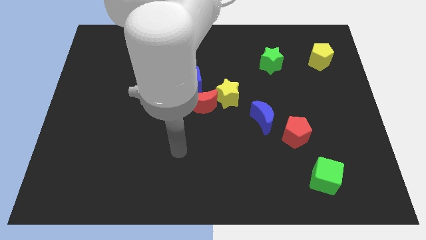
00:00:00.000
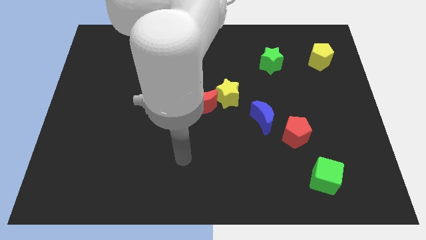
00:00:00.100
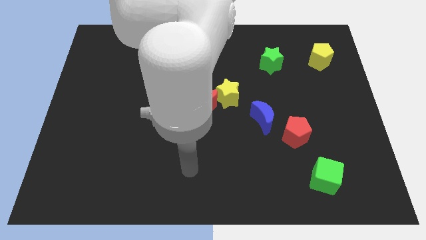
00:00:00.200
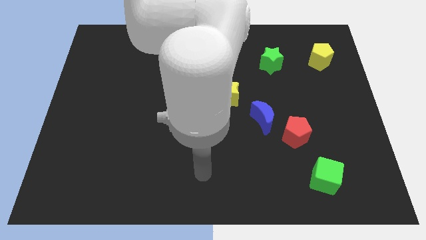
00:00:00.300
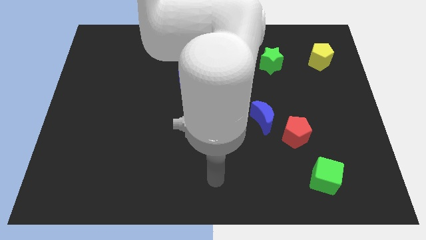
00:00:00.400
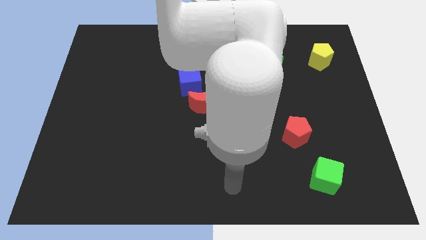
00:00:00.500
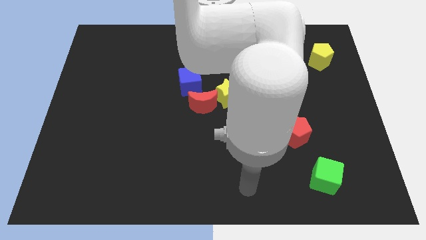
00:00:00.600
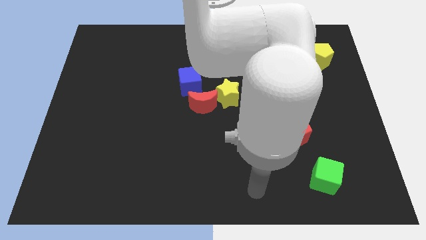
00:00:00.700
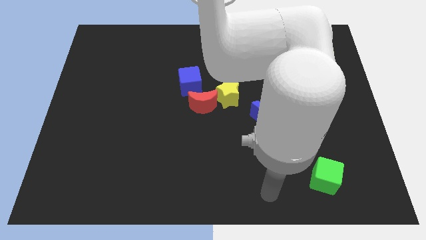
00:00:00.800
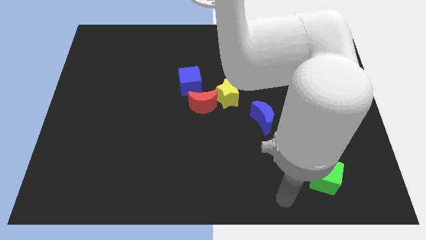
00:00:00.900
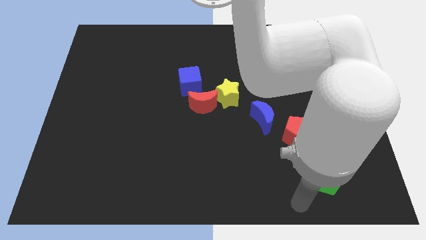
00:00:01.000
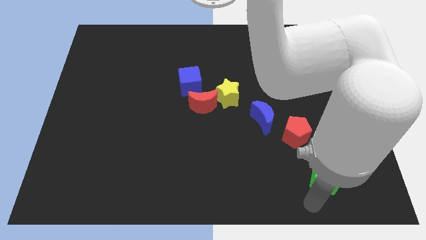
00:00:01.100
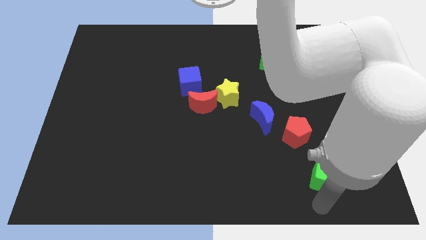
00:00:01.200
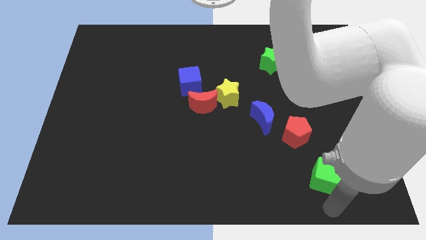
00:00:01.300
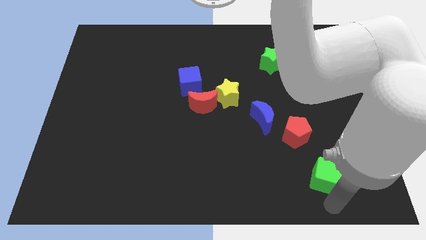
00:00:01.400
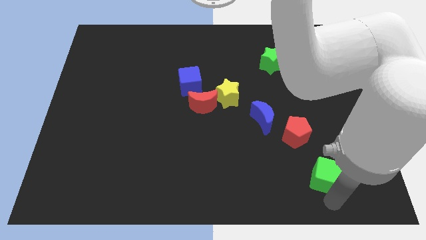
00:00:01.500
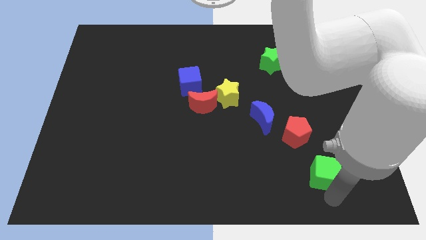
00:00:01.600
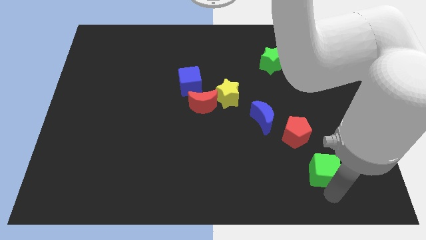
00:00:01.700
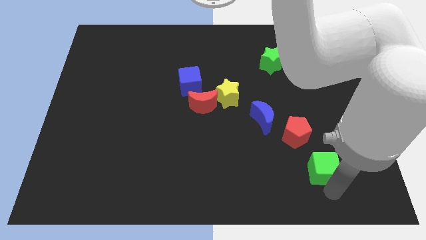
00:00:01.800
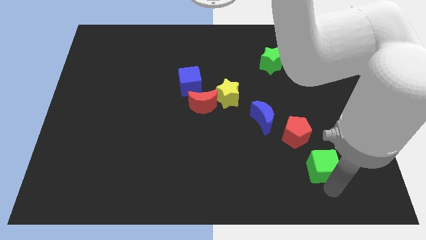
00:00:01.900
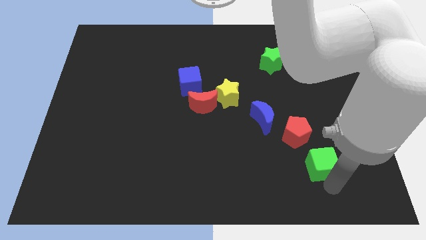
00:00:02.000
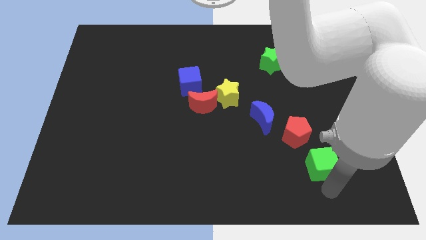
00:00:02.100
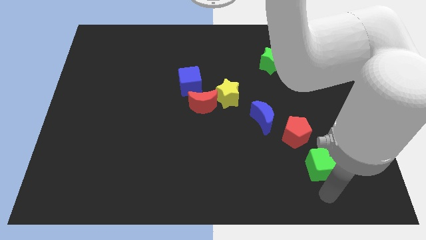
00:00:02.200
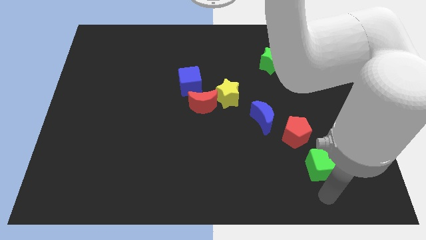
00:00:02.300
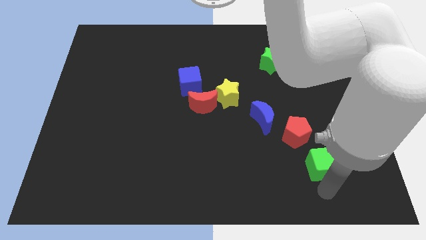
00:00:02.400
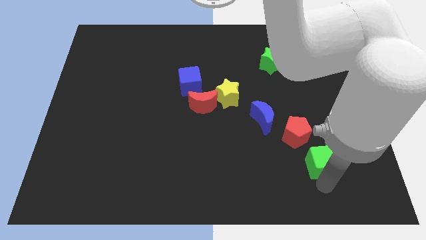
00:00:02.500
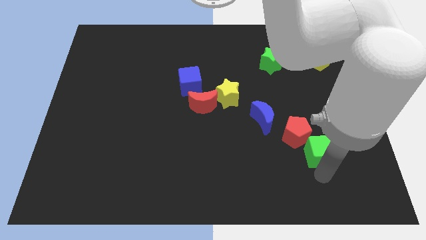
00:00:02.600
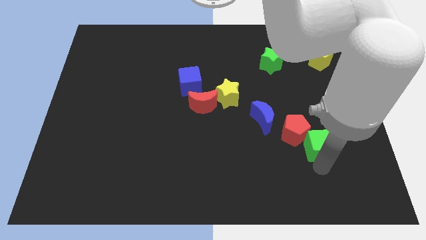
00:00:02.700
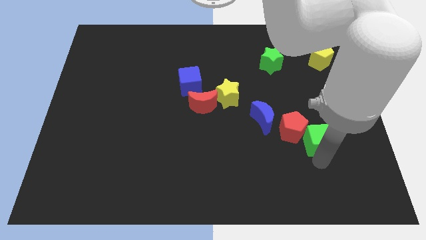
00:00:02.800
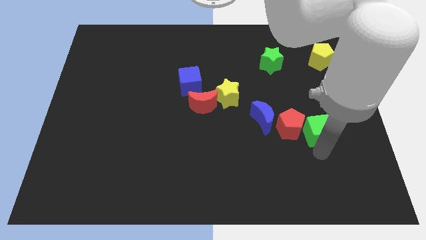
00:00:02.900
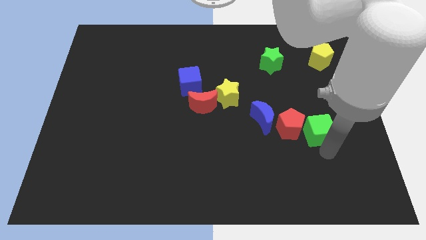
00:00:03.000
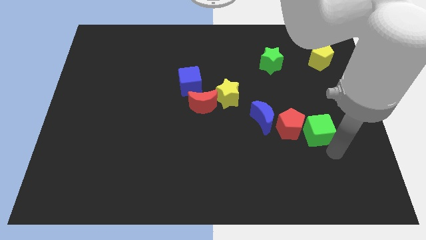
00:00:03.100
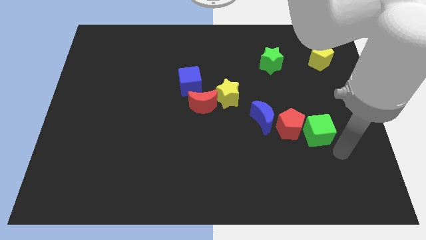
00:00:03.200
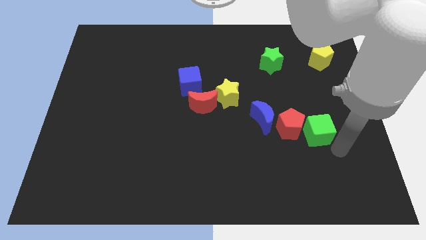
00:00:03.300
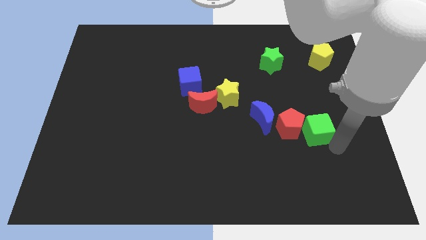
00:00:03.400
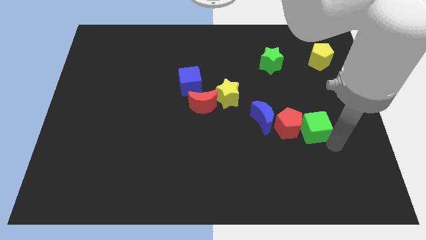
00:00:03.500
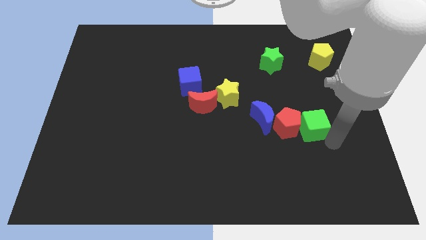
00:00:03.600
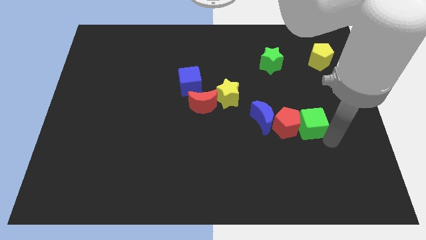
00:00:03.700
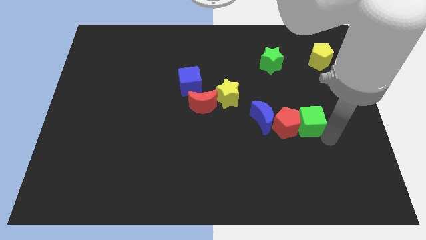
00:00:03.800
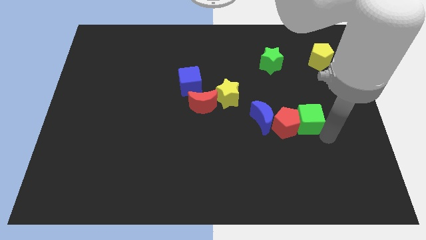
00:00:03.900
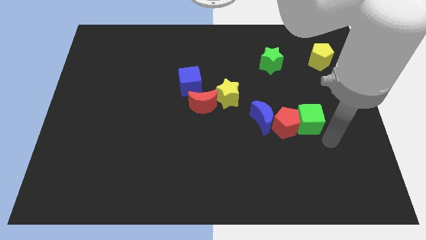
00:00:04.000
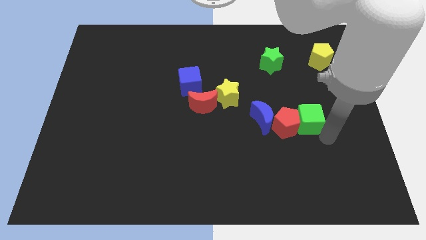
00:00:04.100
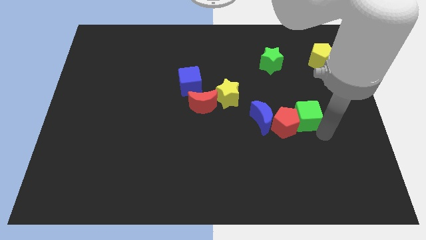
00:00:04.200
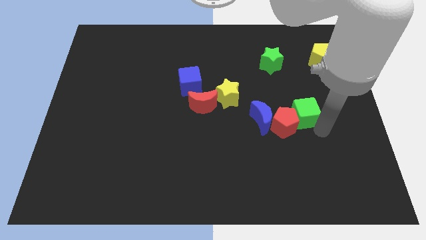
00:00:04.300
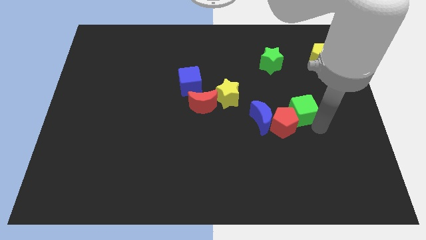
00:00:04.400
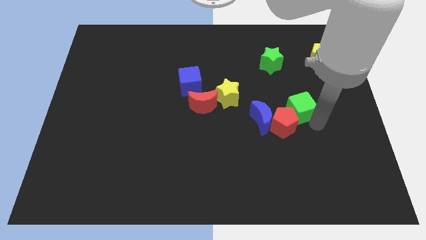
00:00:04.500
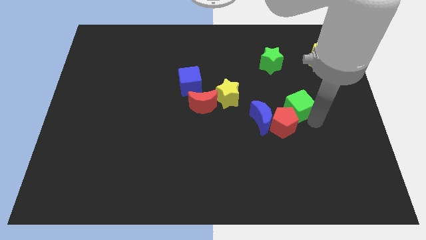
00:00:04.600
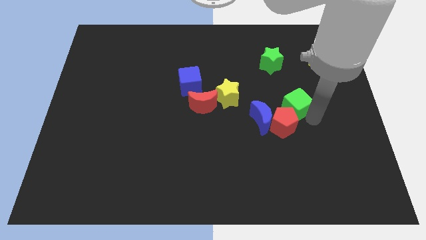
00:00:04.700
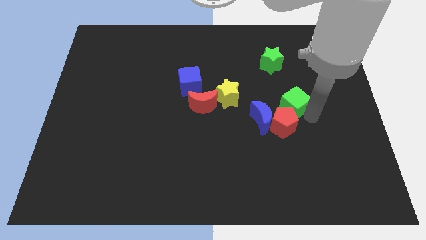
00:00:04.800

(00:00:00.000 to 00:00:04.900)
put the green cube below the green star

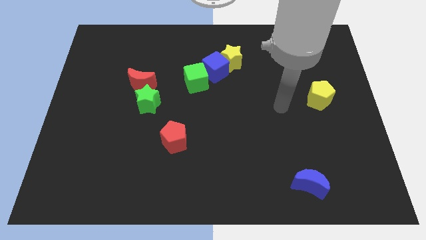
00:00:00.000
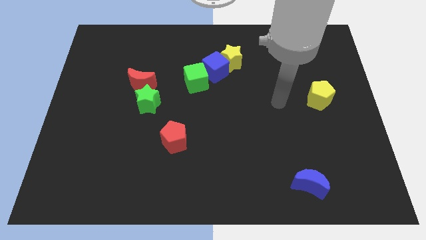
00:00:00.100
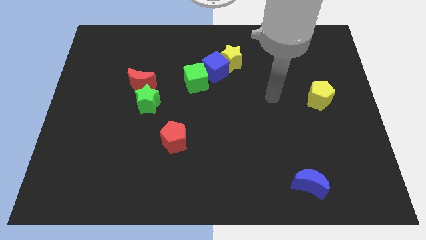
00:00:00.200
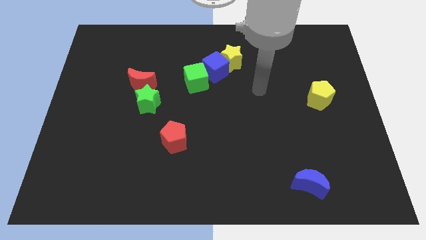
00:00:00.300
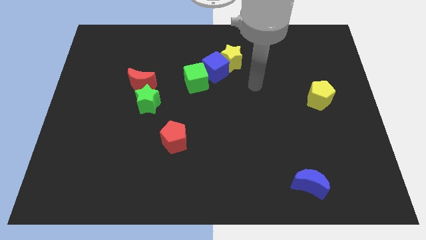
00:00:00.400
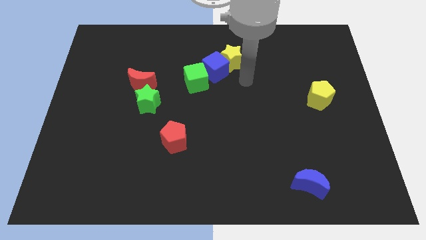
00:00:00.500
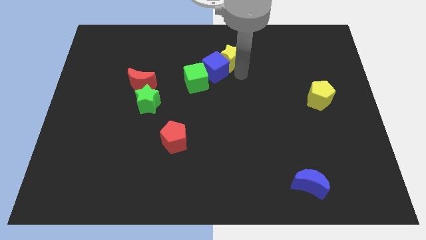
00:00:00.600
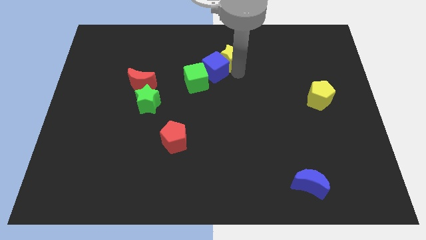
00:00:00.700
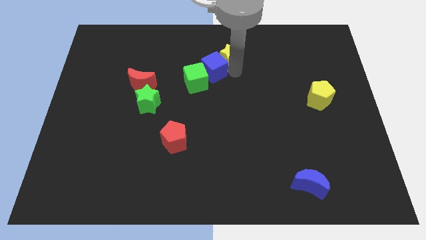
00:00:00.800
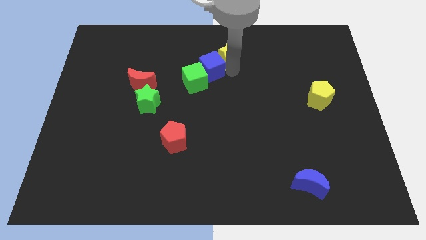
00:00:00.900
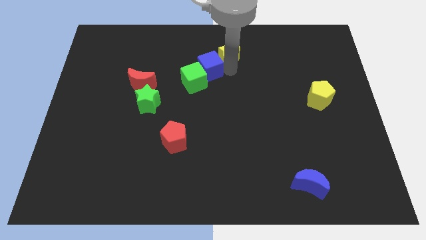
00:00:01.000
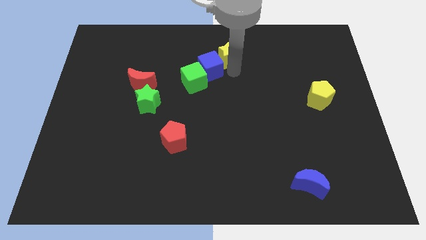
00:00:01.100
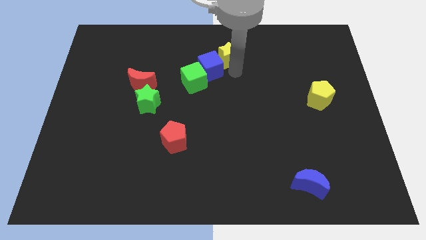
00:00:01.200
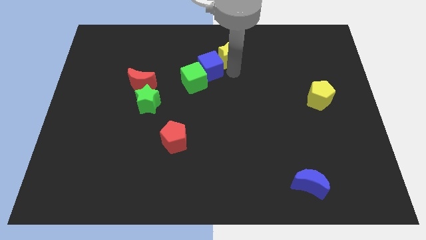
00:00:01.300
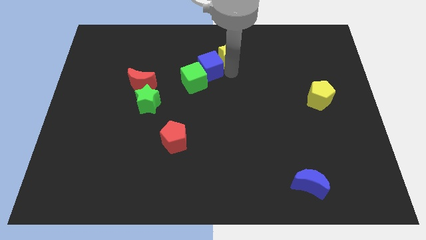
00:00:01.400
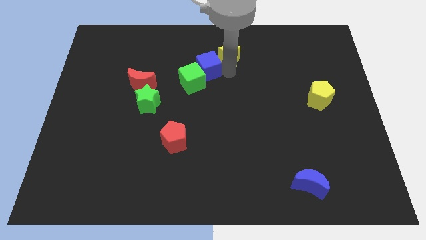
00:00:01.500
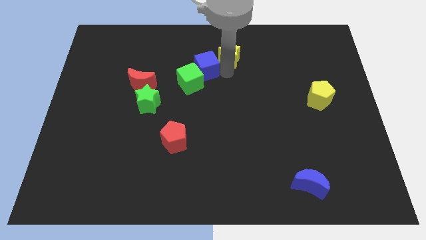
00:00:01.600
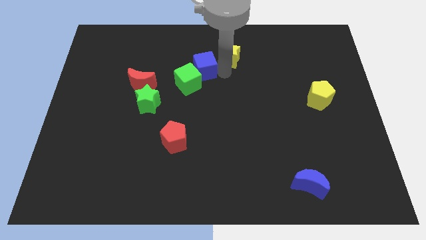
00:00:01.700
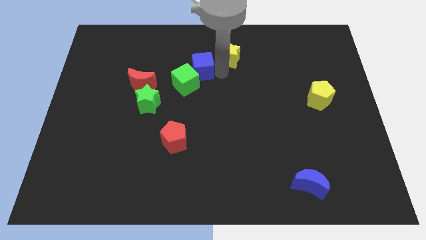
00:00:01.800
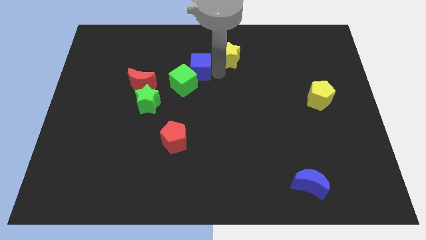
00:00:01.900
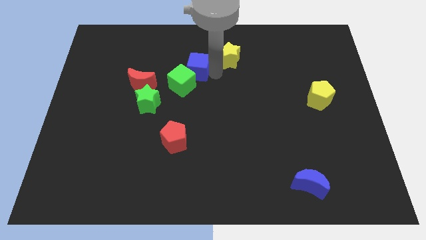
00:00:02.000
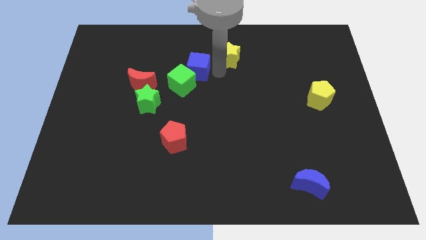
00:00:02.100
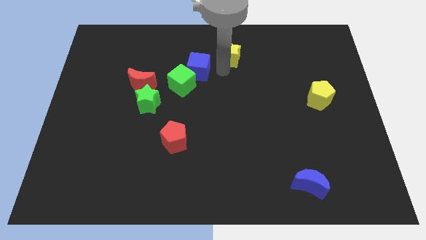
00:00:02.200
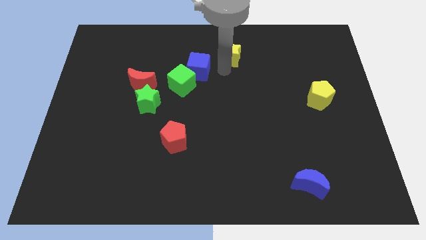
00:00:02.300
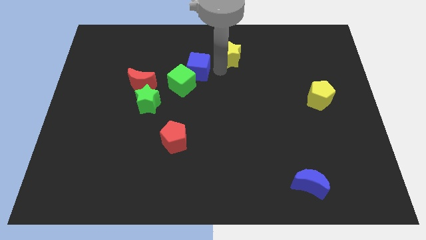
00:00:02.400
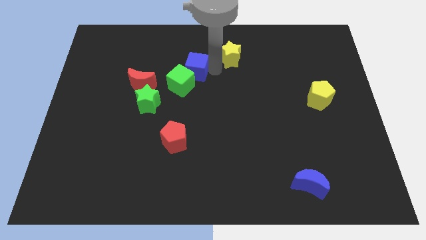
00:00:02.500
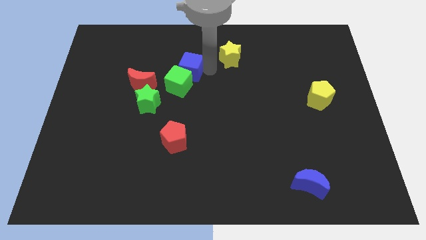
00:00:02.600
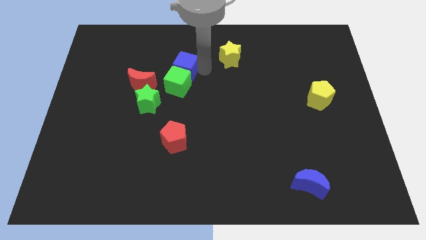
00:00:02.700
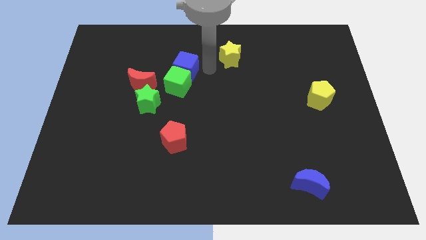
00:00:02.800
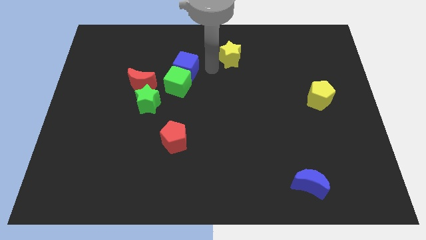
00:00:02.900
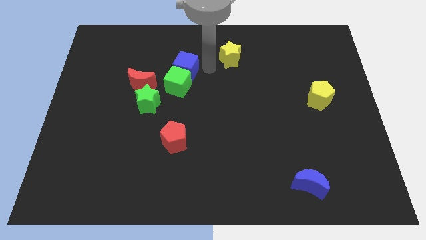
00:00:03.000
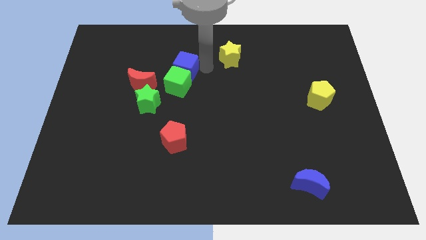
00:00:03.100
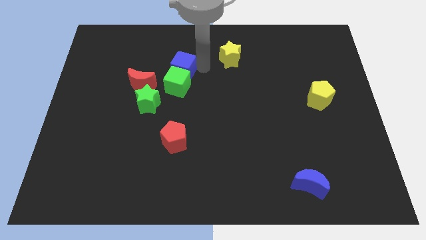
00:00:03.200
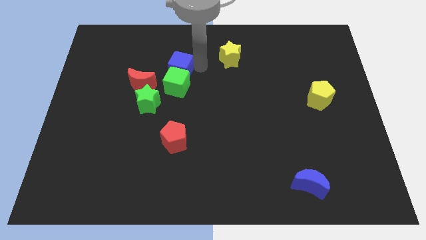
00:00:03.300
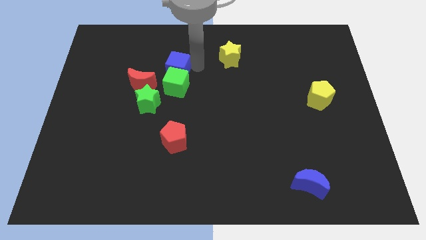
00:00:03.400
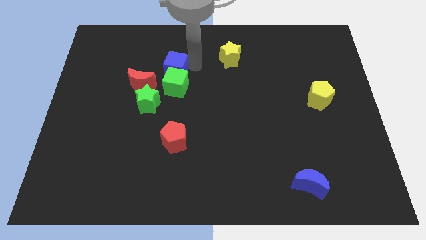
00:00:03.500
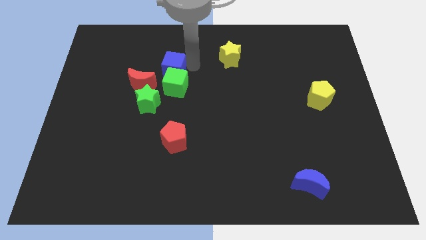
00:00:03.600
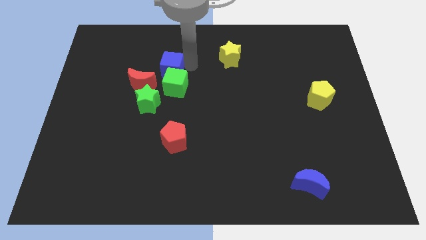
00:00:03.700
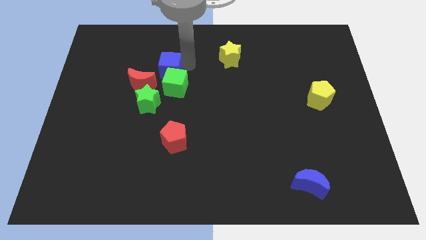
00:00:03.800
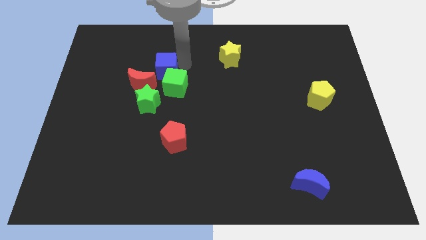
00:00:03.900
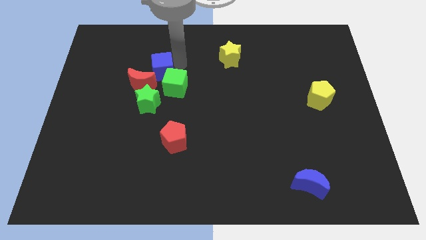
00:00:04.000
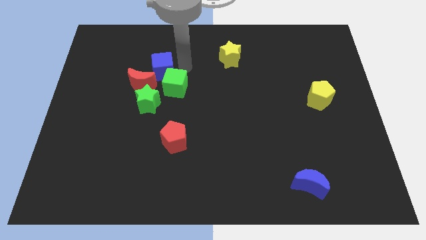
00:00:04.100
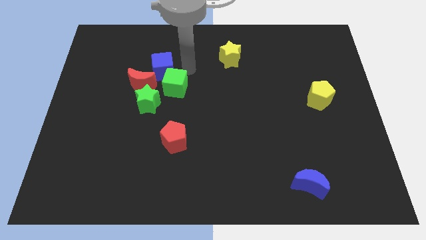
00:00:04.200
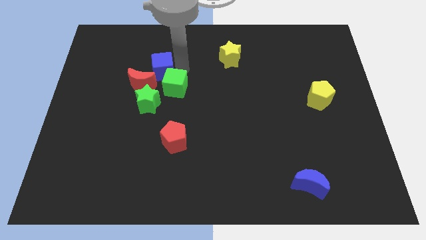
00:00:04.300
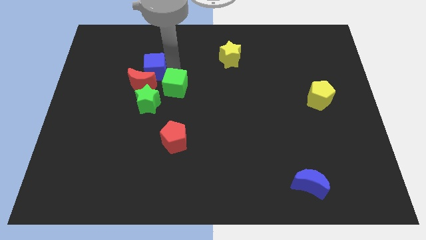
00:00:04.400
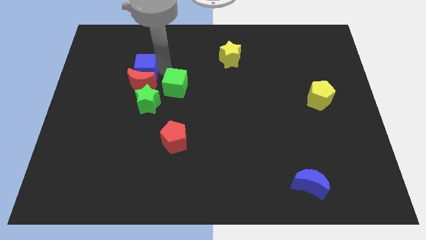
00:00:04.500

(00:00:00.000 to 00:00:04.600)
move the blue cube to the top left of the red moon
